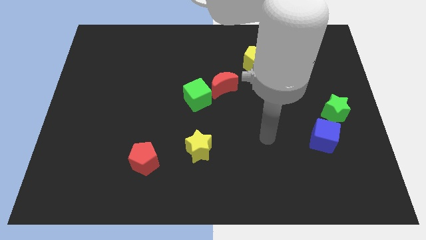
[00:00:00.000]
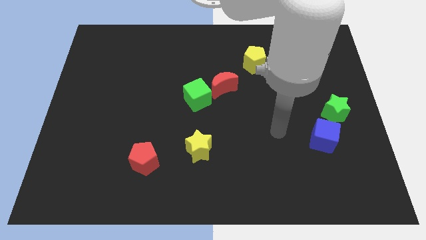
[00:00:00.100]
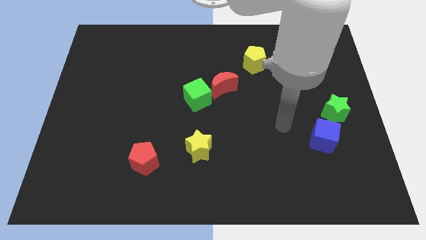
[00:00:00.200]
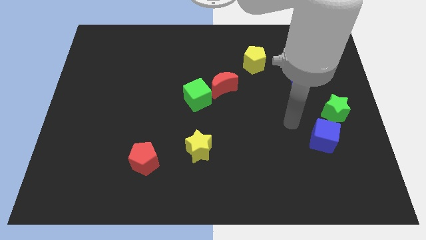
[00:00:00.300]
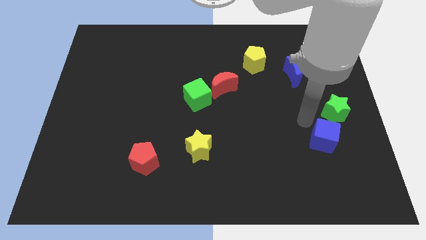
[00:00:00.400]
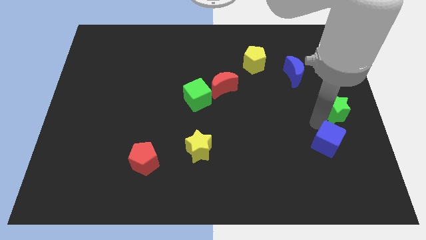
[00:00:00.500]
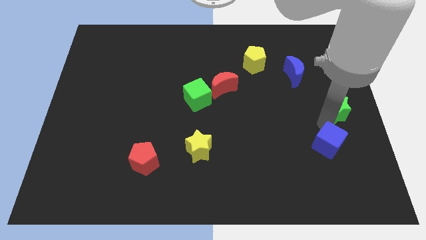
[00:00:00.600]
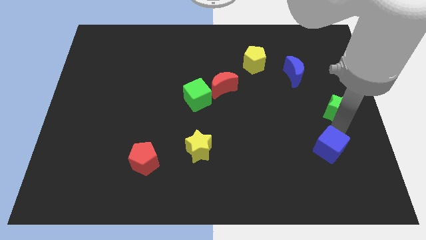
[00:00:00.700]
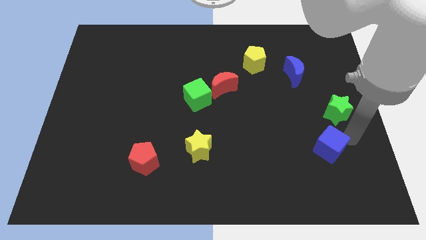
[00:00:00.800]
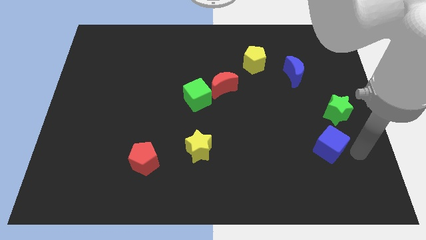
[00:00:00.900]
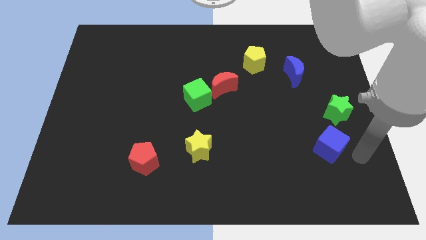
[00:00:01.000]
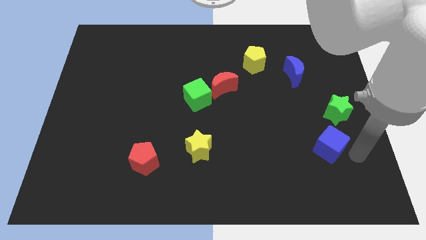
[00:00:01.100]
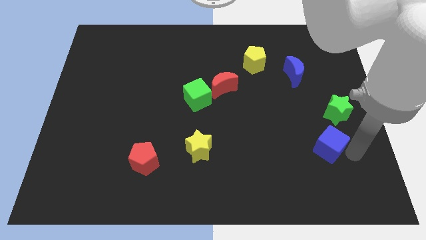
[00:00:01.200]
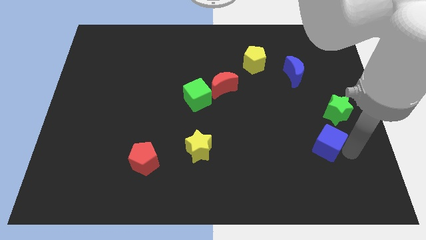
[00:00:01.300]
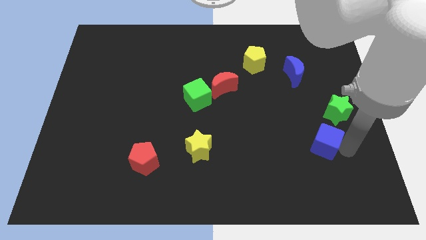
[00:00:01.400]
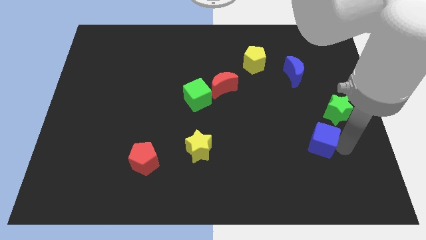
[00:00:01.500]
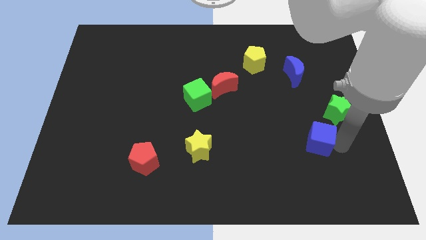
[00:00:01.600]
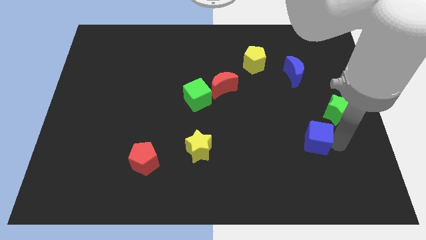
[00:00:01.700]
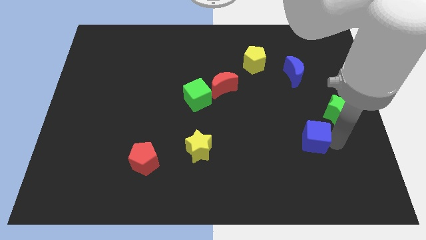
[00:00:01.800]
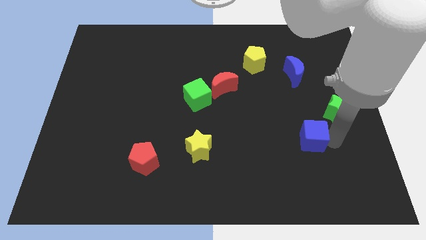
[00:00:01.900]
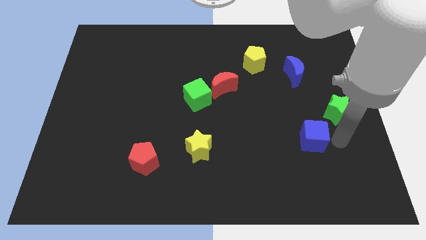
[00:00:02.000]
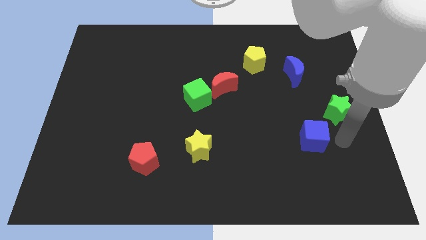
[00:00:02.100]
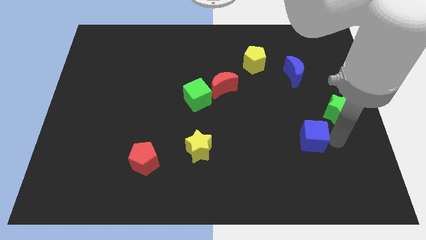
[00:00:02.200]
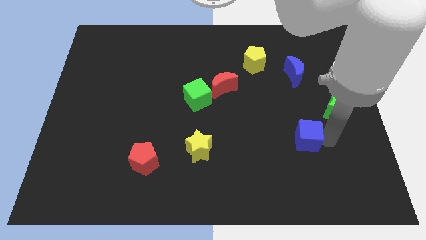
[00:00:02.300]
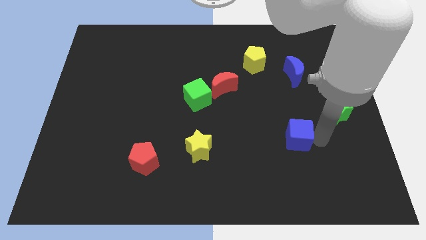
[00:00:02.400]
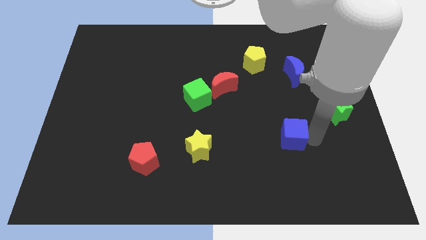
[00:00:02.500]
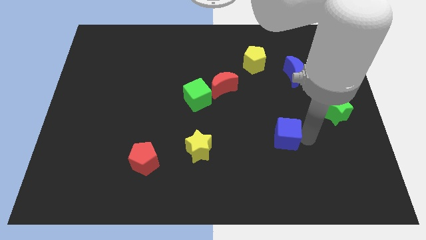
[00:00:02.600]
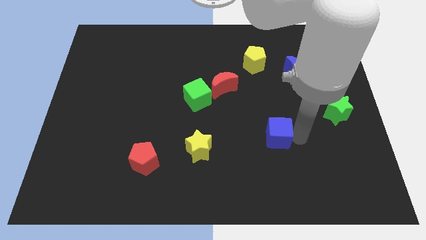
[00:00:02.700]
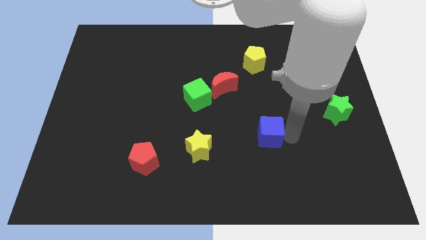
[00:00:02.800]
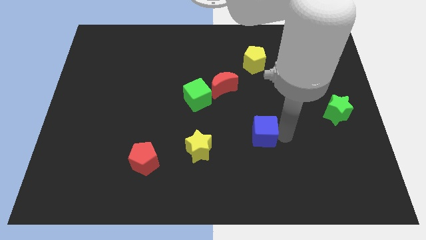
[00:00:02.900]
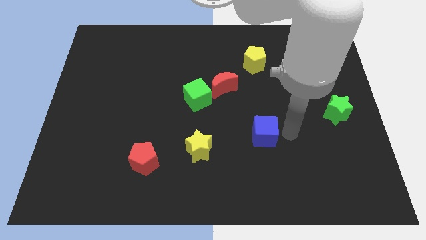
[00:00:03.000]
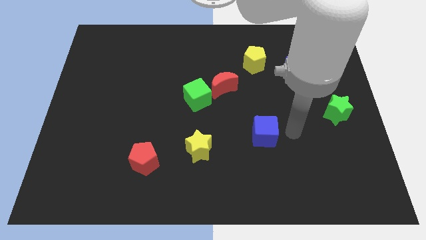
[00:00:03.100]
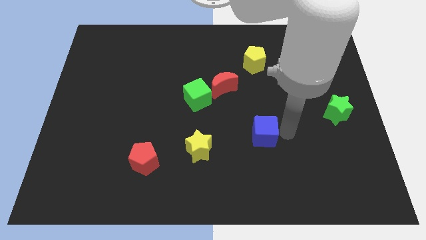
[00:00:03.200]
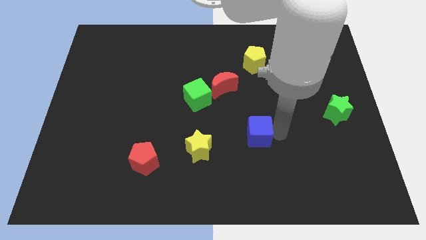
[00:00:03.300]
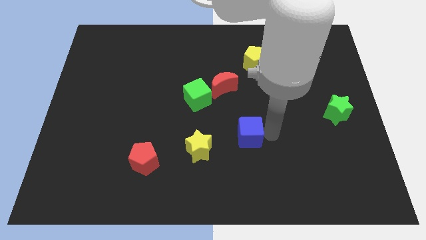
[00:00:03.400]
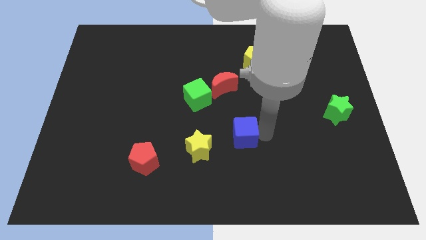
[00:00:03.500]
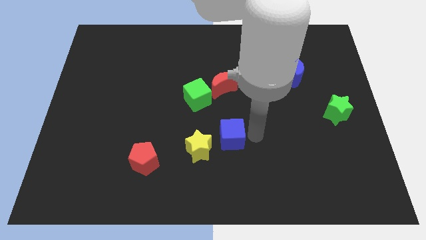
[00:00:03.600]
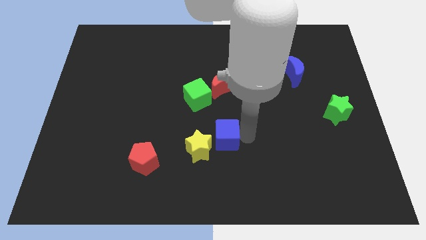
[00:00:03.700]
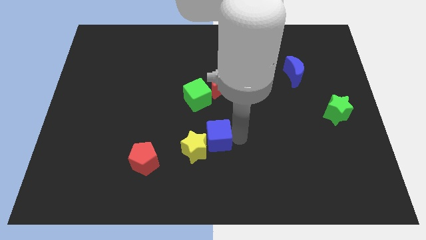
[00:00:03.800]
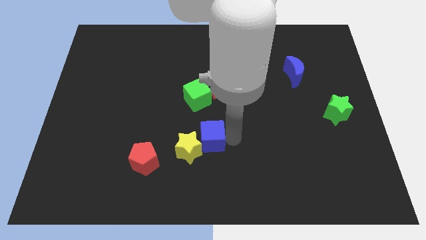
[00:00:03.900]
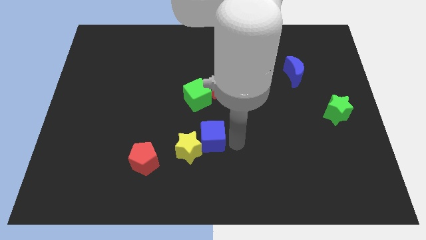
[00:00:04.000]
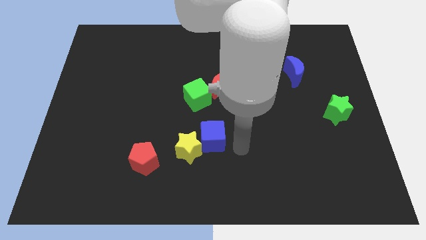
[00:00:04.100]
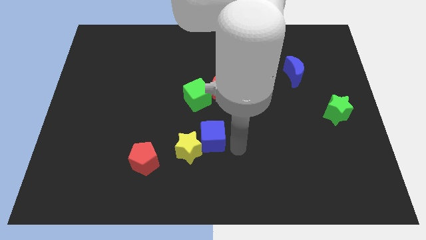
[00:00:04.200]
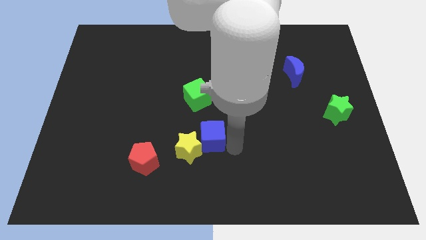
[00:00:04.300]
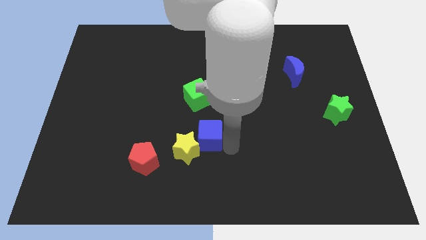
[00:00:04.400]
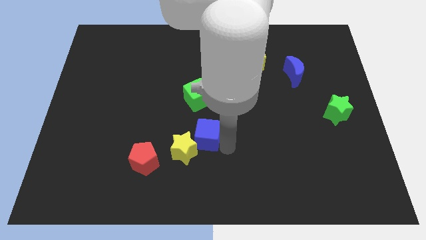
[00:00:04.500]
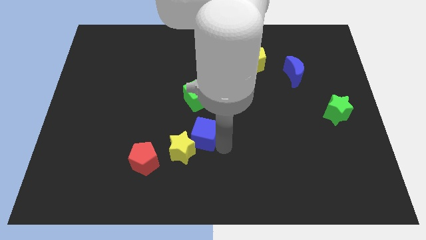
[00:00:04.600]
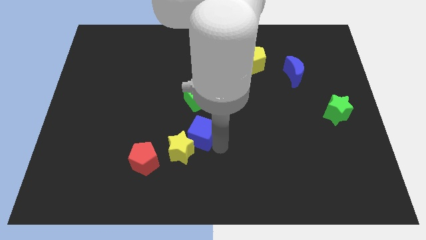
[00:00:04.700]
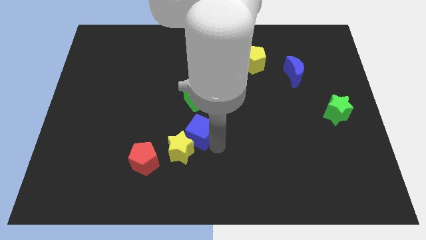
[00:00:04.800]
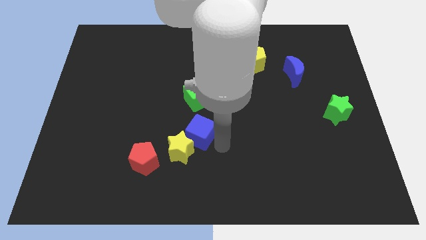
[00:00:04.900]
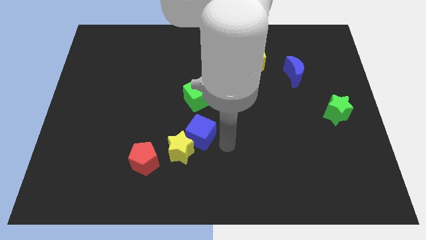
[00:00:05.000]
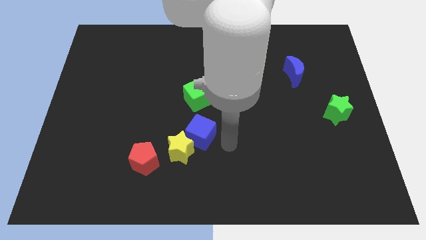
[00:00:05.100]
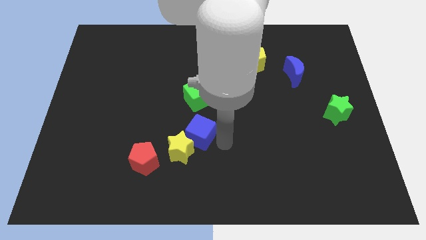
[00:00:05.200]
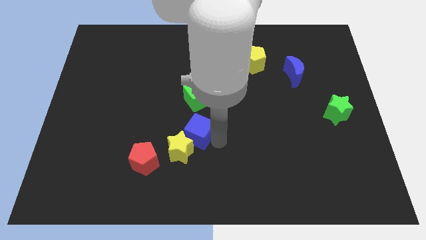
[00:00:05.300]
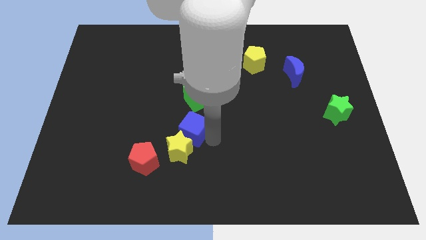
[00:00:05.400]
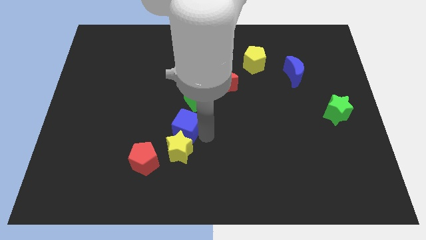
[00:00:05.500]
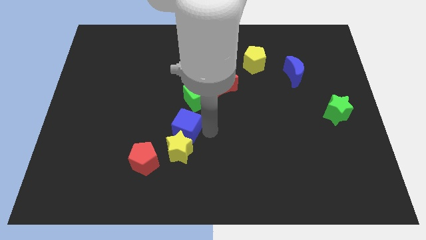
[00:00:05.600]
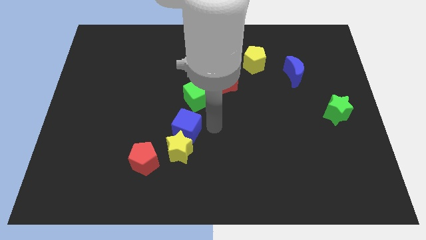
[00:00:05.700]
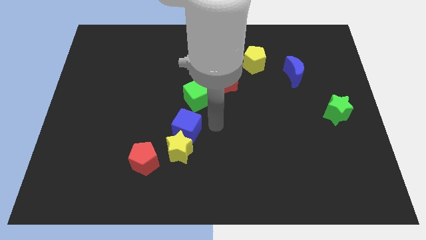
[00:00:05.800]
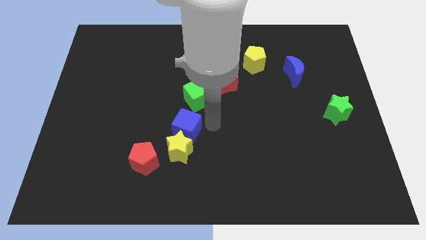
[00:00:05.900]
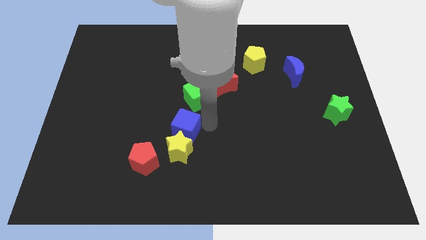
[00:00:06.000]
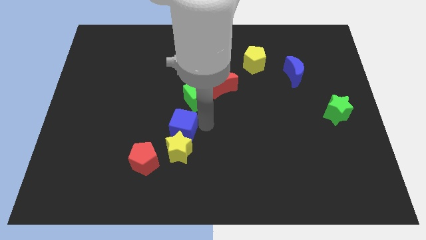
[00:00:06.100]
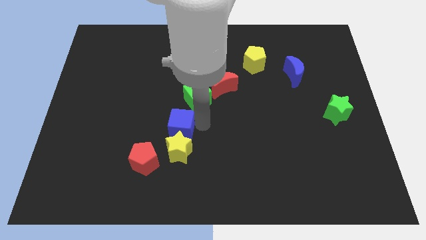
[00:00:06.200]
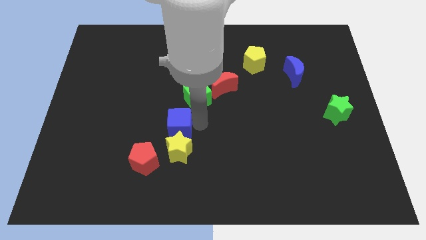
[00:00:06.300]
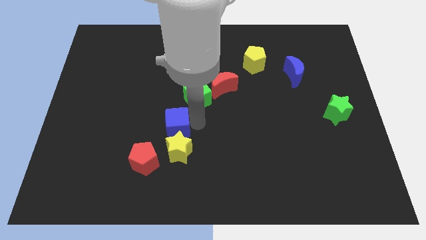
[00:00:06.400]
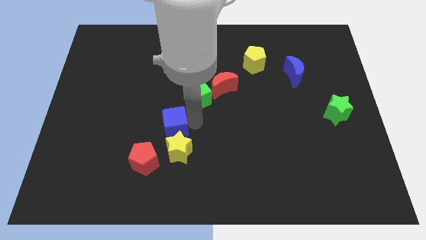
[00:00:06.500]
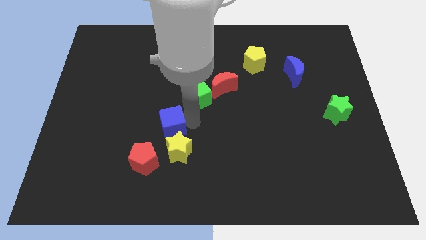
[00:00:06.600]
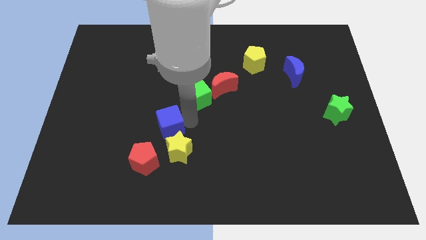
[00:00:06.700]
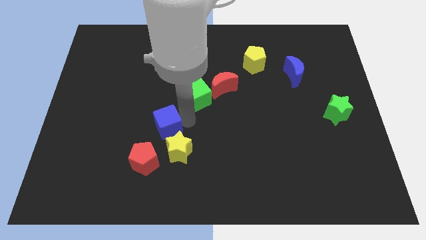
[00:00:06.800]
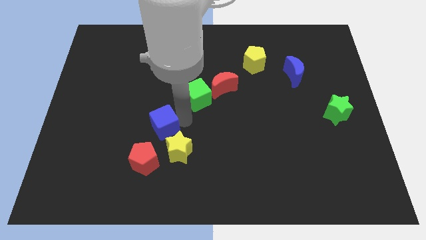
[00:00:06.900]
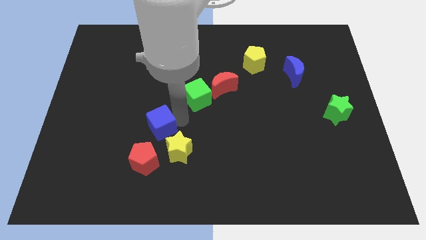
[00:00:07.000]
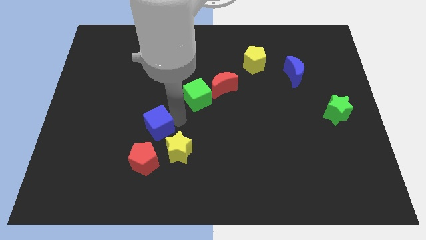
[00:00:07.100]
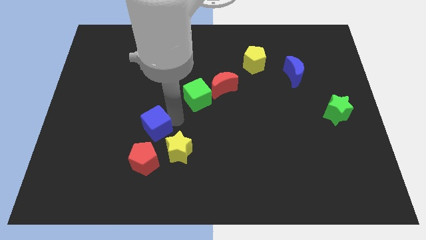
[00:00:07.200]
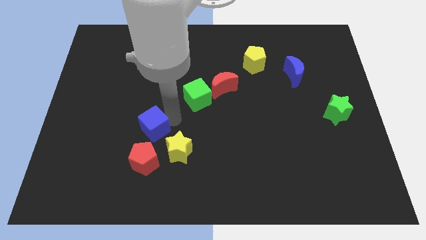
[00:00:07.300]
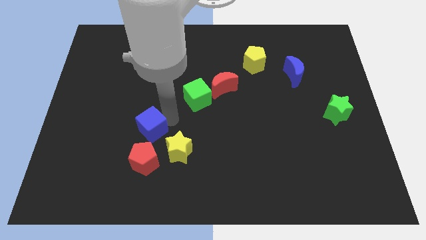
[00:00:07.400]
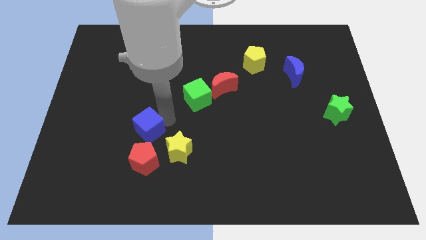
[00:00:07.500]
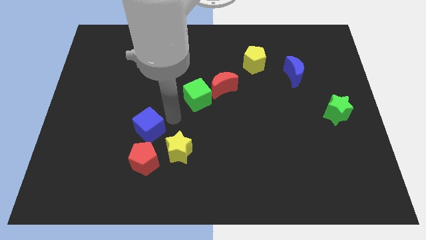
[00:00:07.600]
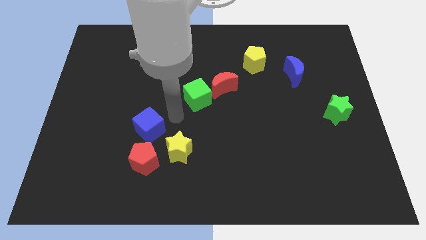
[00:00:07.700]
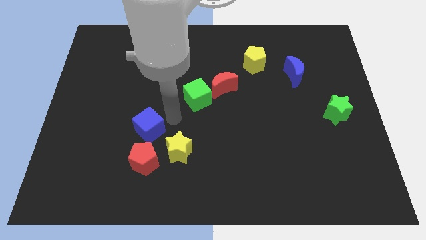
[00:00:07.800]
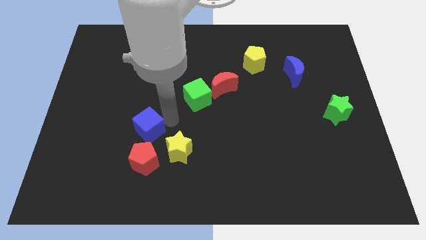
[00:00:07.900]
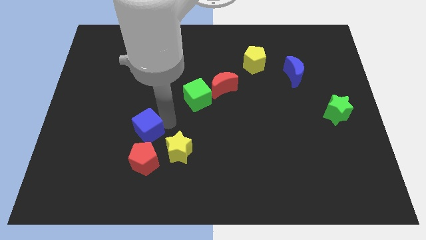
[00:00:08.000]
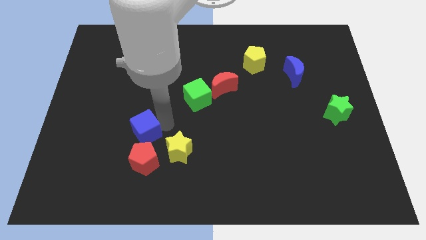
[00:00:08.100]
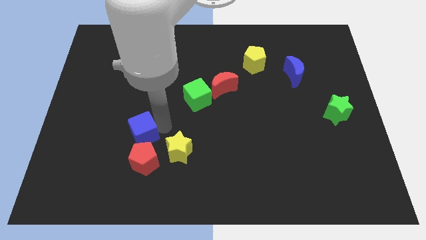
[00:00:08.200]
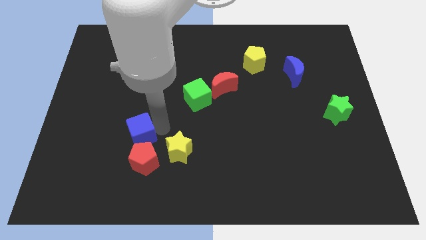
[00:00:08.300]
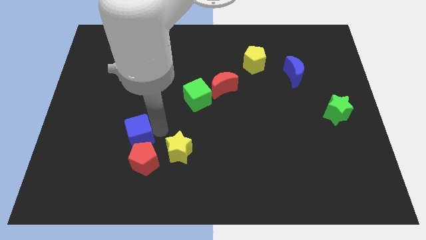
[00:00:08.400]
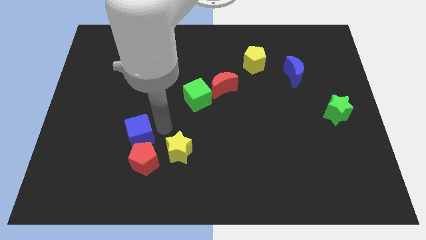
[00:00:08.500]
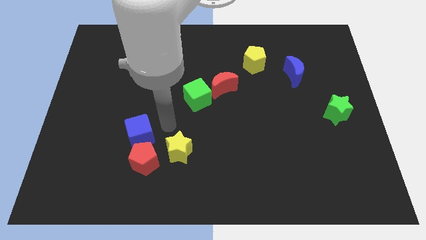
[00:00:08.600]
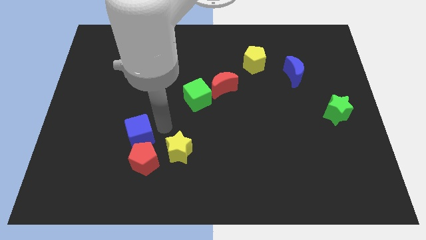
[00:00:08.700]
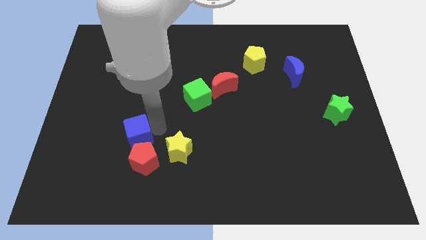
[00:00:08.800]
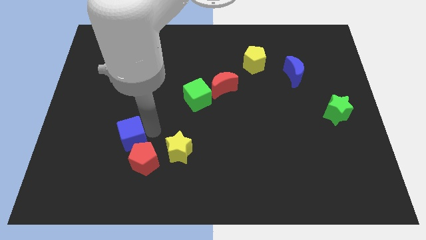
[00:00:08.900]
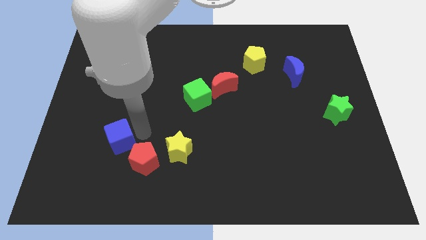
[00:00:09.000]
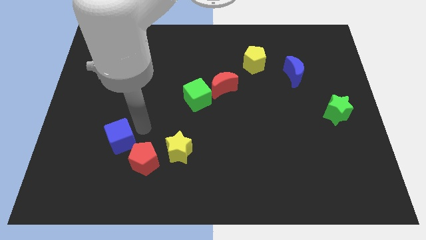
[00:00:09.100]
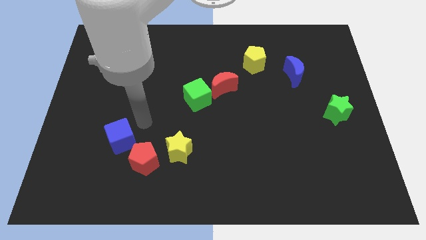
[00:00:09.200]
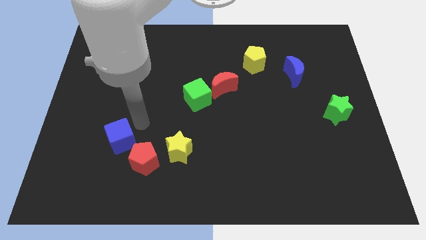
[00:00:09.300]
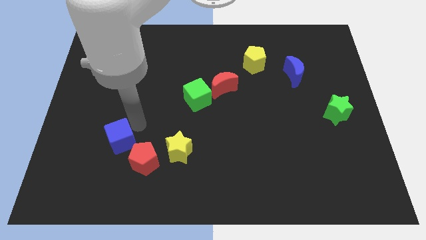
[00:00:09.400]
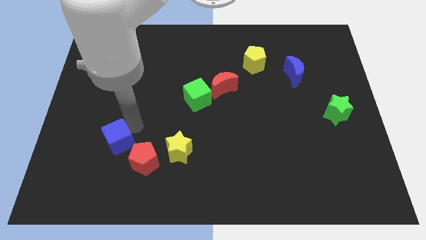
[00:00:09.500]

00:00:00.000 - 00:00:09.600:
push the blue cube just left of the red pentagon
